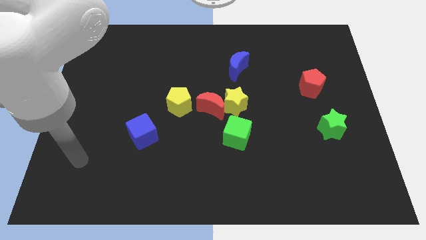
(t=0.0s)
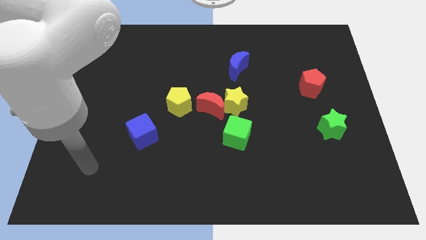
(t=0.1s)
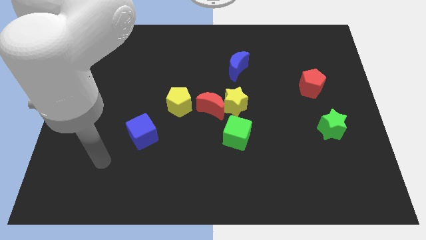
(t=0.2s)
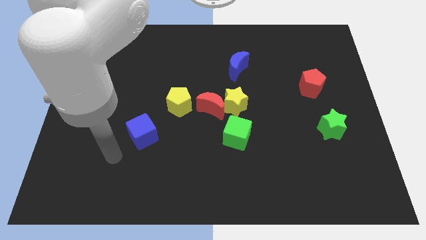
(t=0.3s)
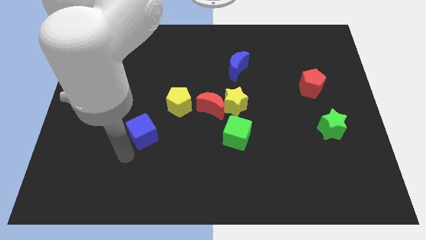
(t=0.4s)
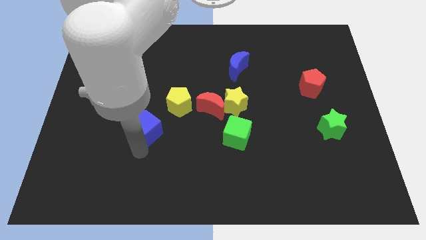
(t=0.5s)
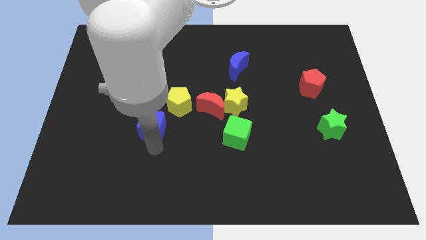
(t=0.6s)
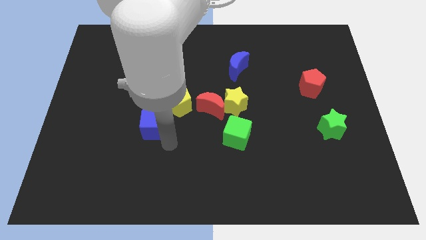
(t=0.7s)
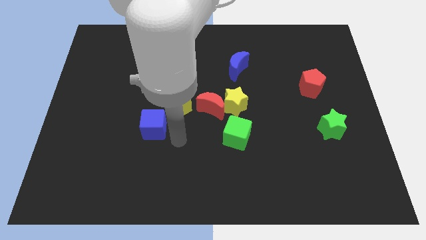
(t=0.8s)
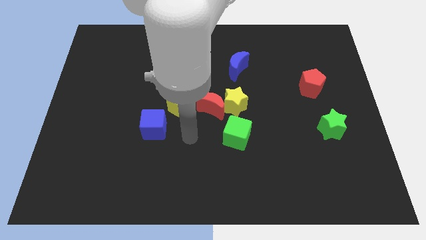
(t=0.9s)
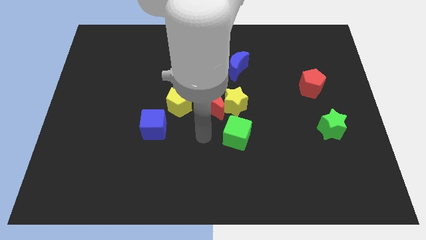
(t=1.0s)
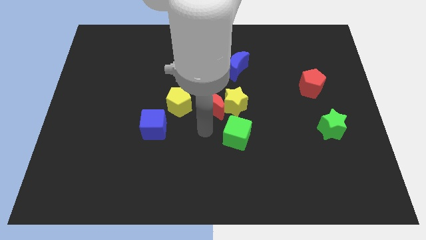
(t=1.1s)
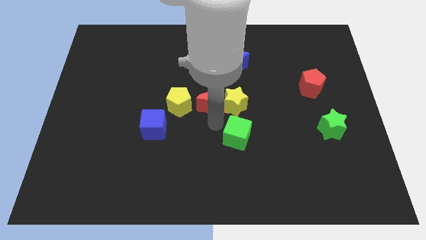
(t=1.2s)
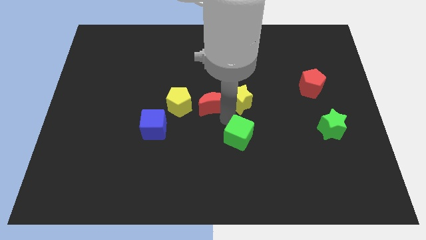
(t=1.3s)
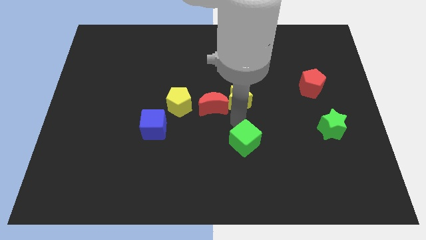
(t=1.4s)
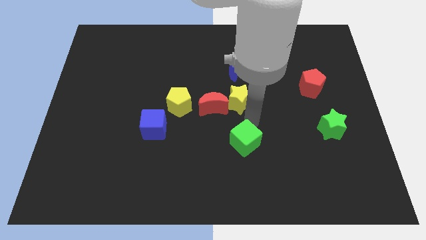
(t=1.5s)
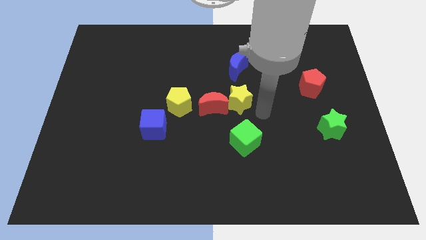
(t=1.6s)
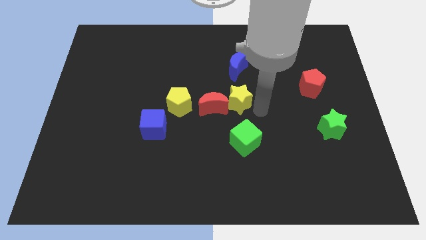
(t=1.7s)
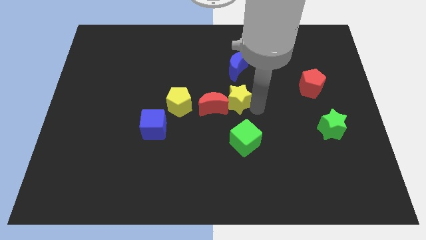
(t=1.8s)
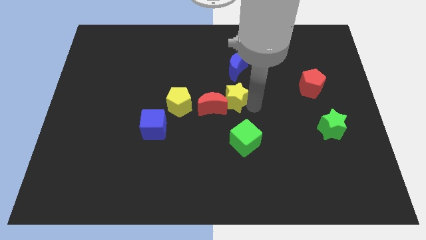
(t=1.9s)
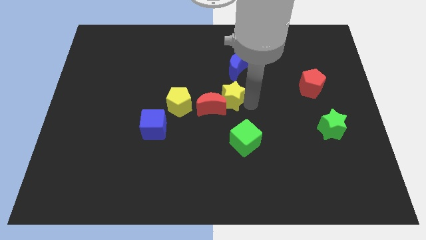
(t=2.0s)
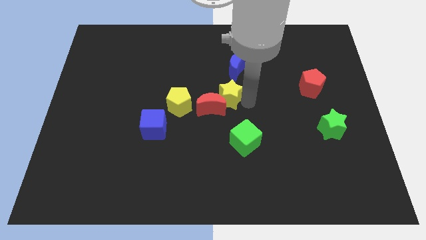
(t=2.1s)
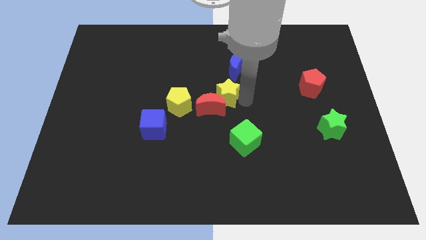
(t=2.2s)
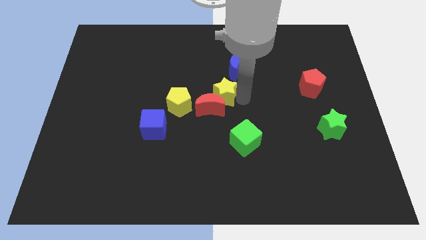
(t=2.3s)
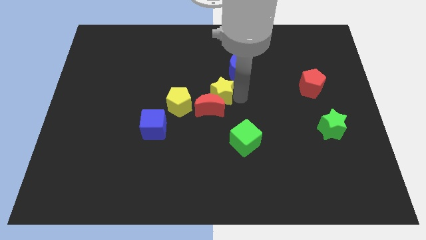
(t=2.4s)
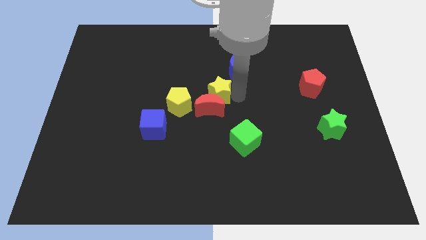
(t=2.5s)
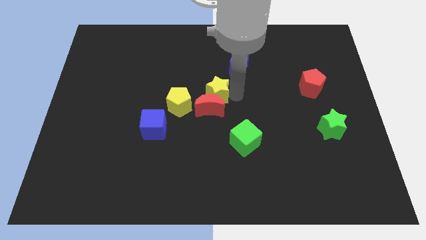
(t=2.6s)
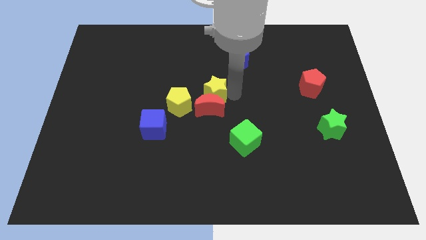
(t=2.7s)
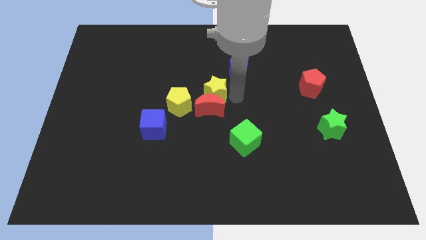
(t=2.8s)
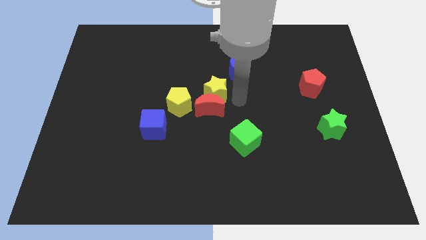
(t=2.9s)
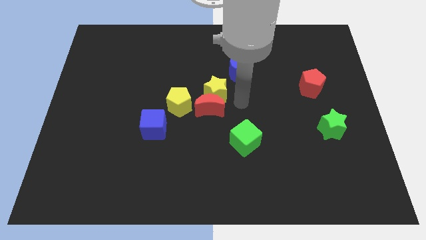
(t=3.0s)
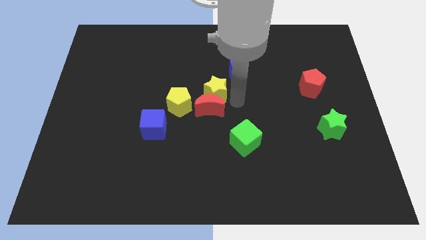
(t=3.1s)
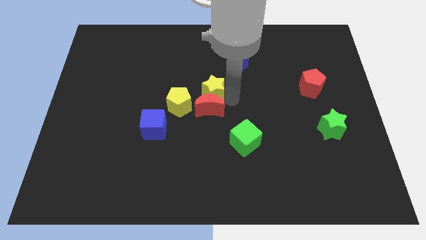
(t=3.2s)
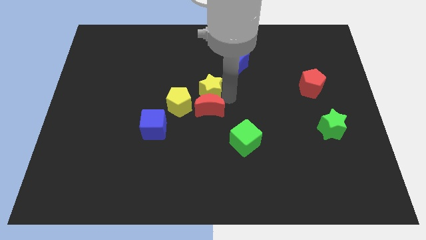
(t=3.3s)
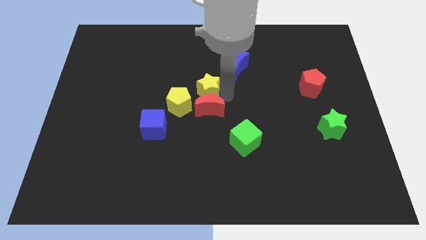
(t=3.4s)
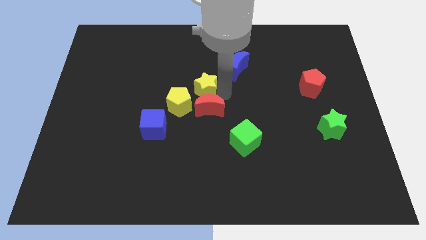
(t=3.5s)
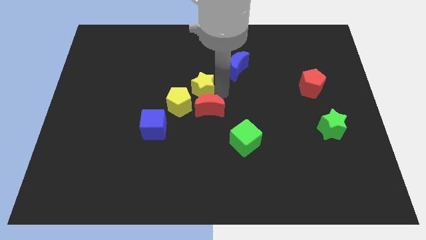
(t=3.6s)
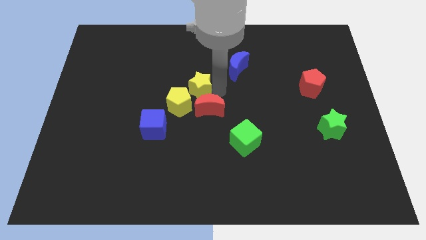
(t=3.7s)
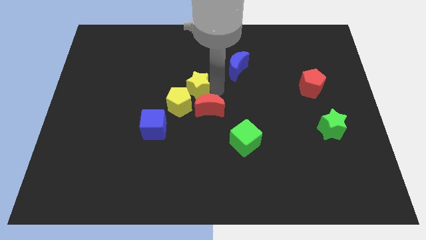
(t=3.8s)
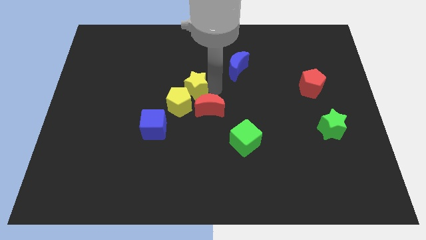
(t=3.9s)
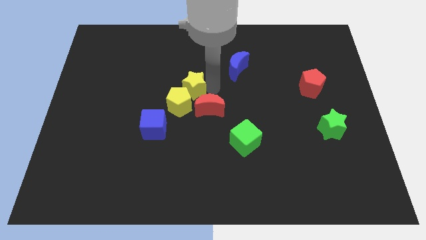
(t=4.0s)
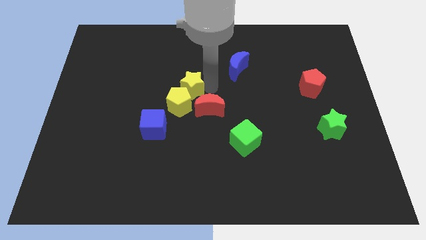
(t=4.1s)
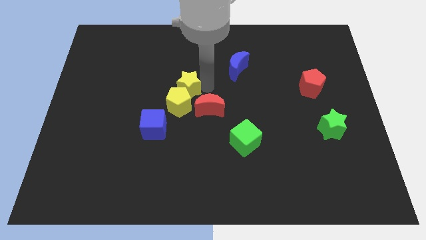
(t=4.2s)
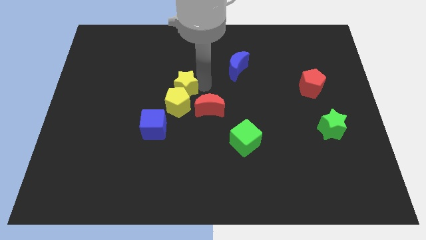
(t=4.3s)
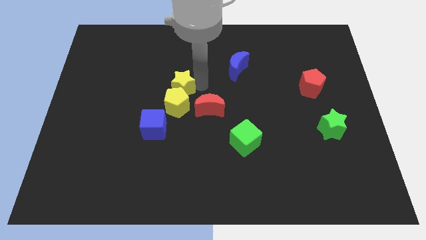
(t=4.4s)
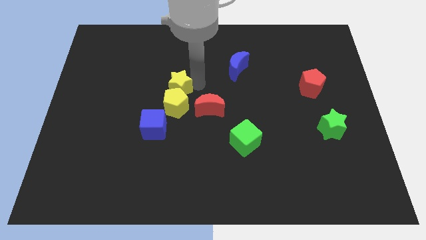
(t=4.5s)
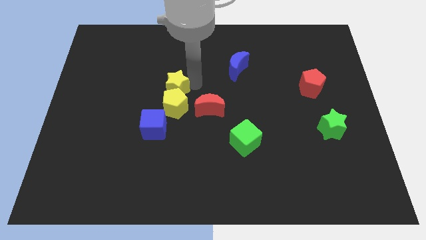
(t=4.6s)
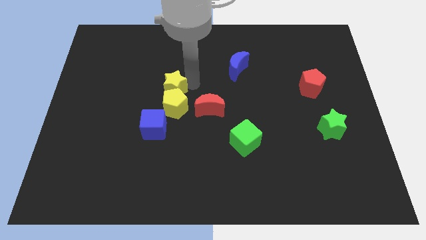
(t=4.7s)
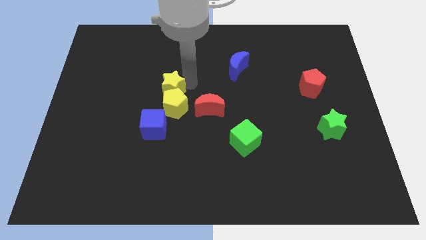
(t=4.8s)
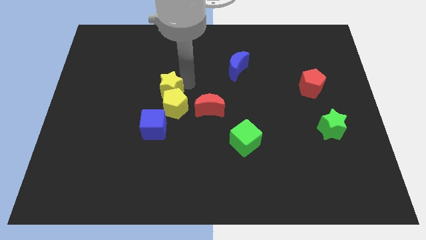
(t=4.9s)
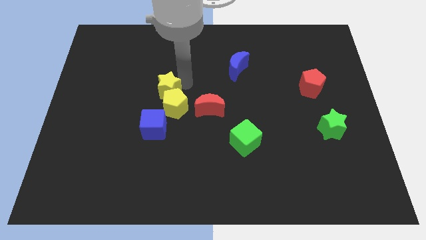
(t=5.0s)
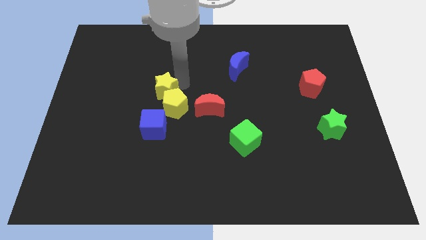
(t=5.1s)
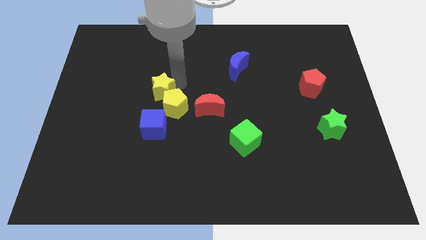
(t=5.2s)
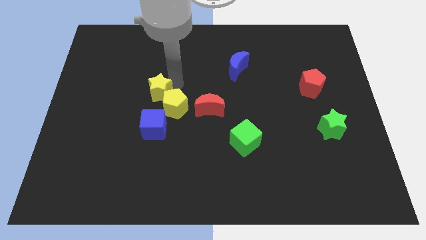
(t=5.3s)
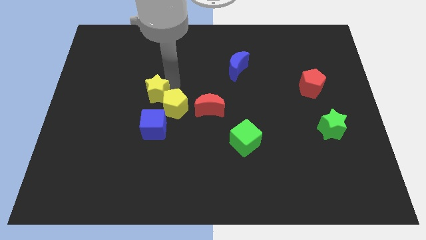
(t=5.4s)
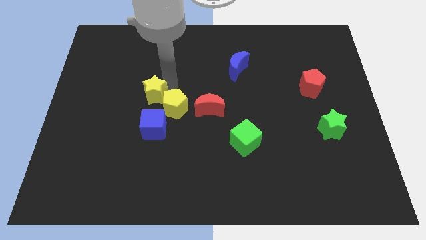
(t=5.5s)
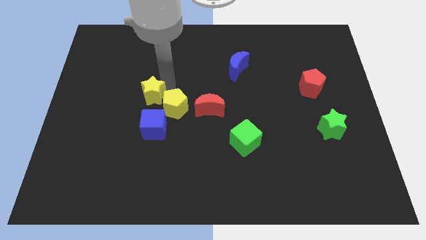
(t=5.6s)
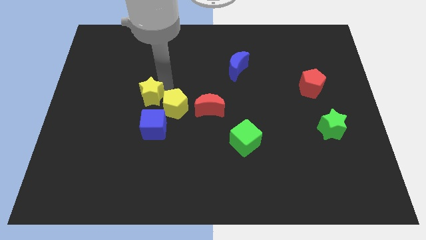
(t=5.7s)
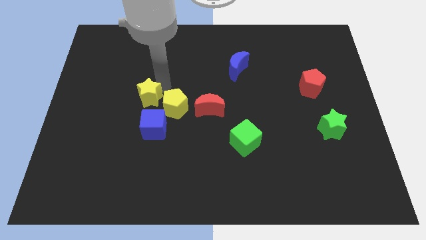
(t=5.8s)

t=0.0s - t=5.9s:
push the yellow star left

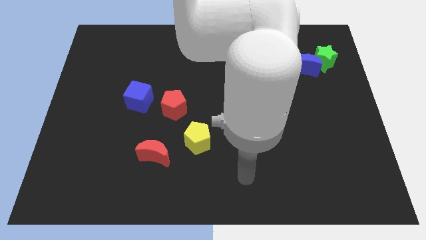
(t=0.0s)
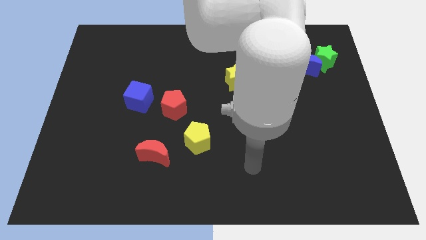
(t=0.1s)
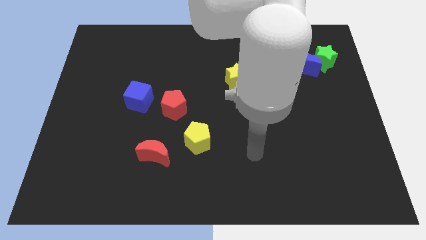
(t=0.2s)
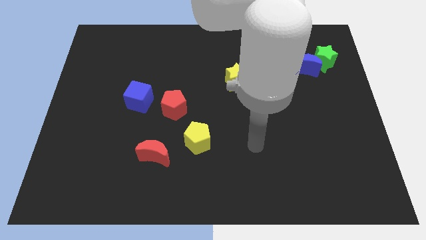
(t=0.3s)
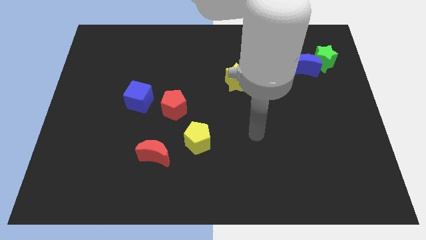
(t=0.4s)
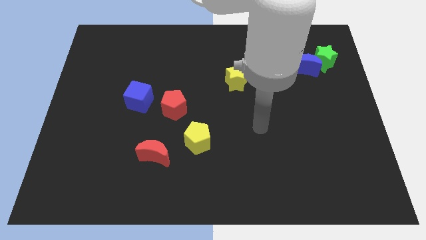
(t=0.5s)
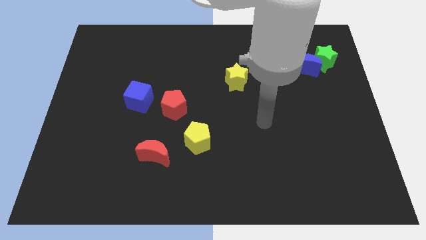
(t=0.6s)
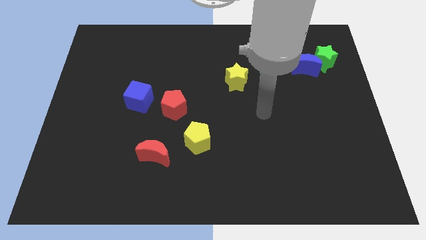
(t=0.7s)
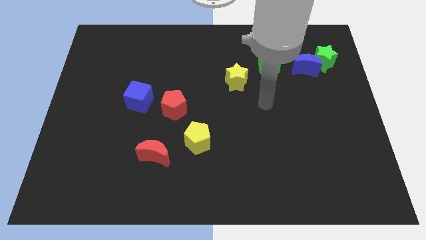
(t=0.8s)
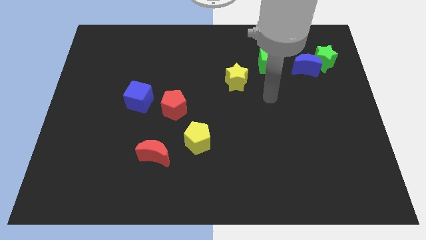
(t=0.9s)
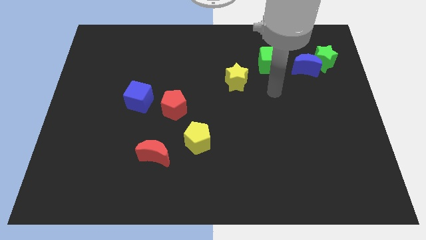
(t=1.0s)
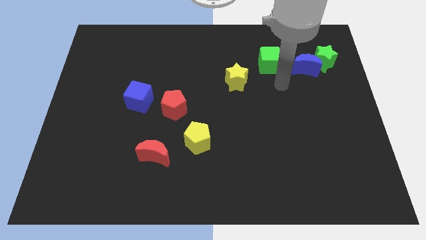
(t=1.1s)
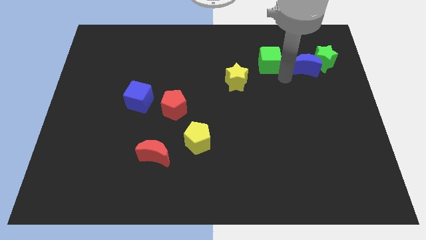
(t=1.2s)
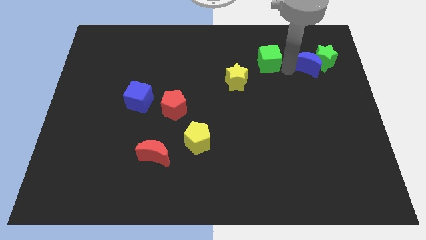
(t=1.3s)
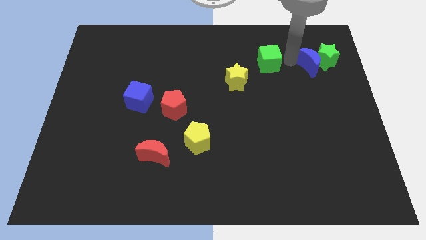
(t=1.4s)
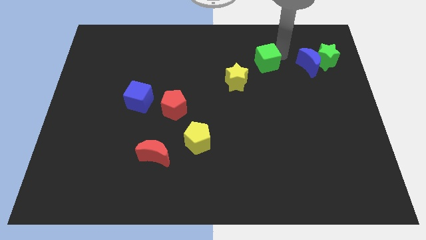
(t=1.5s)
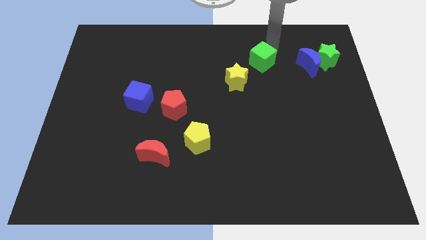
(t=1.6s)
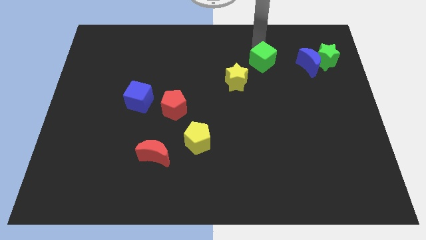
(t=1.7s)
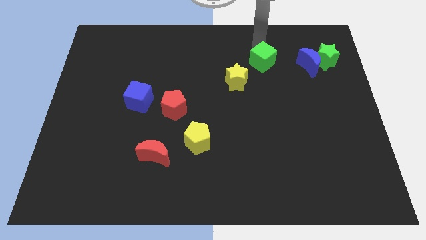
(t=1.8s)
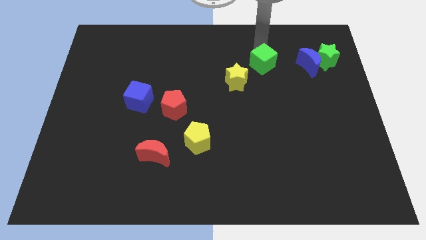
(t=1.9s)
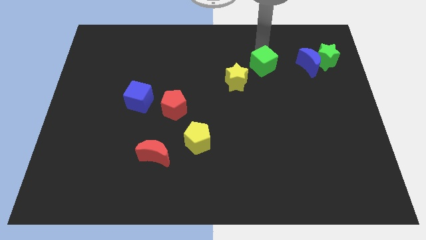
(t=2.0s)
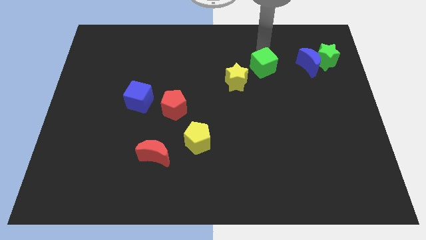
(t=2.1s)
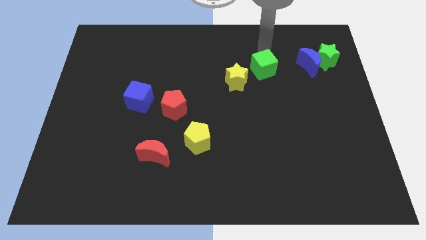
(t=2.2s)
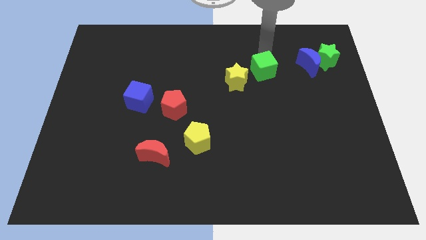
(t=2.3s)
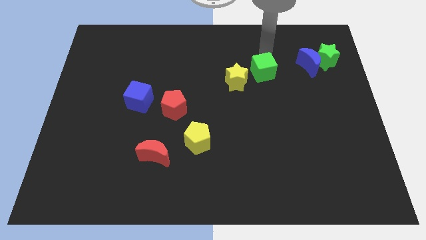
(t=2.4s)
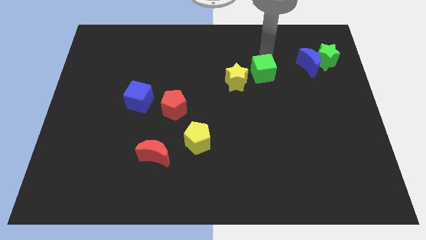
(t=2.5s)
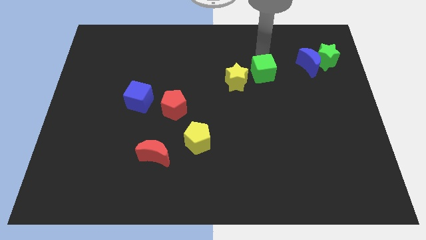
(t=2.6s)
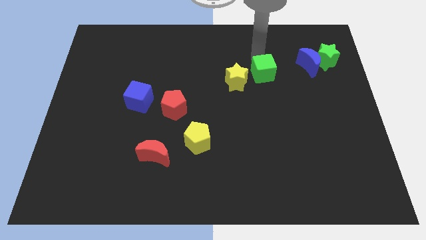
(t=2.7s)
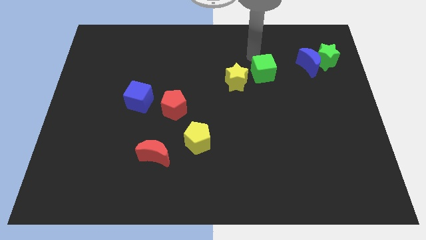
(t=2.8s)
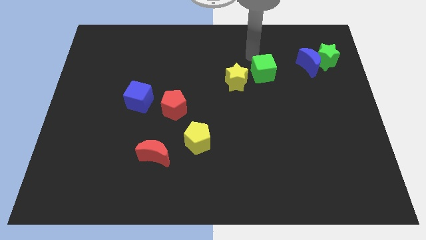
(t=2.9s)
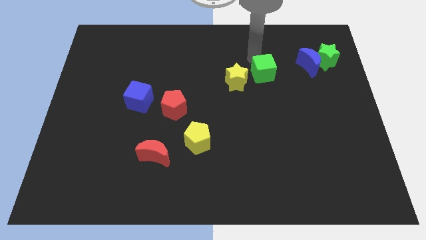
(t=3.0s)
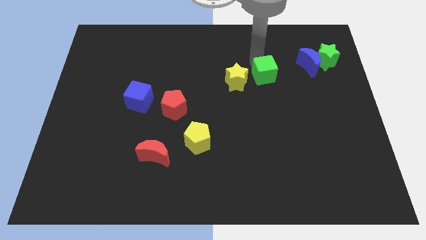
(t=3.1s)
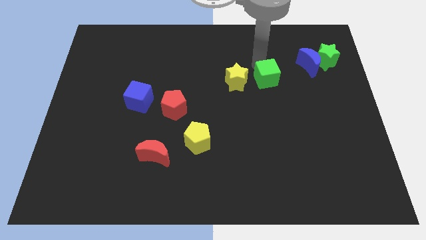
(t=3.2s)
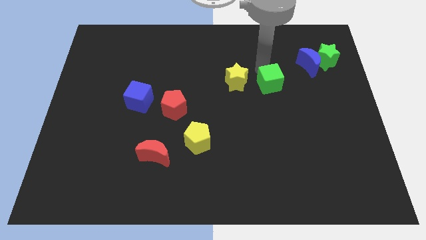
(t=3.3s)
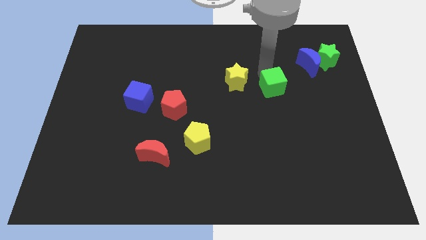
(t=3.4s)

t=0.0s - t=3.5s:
push the green cube somewhat down
